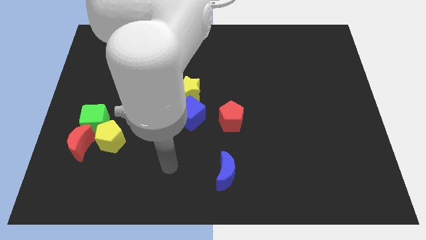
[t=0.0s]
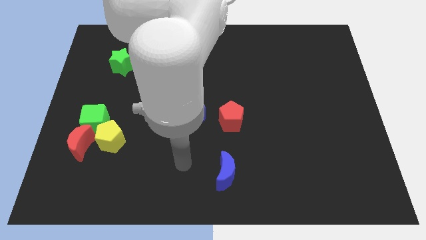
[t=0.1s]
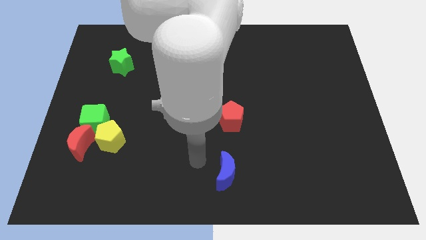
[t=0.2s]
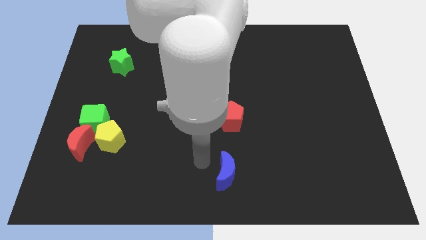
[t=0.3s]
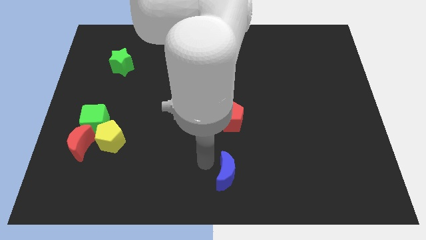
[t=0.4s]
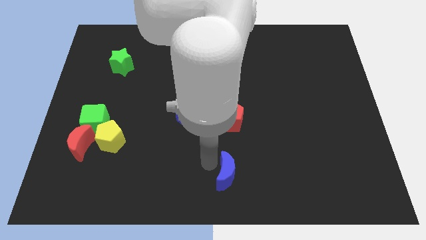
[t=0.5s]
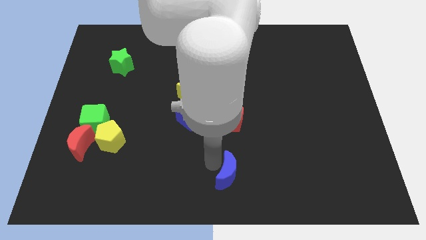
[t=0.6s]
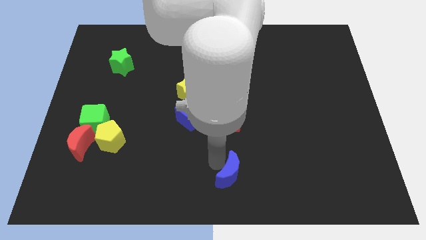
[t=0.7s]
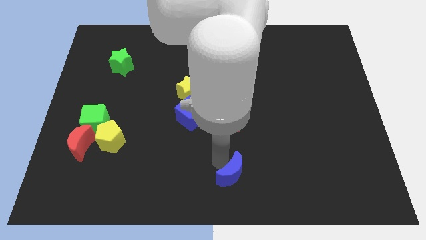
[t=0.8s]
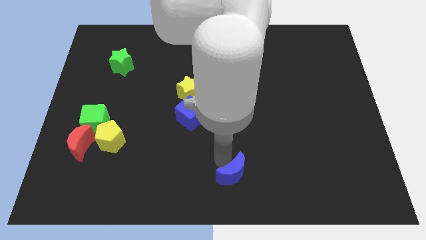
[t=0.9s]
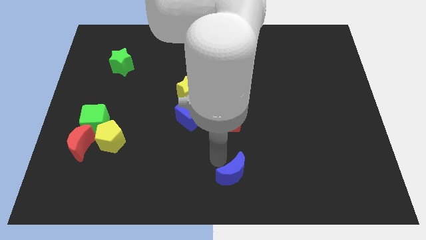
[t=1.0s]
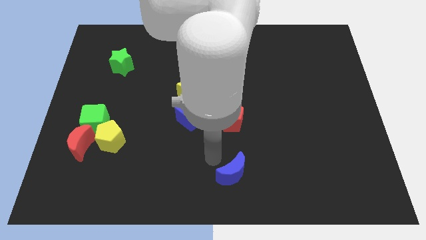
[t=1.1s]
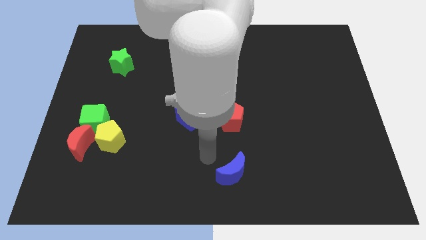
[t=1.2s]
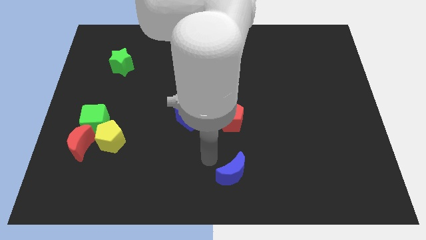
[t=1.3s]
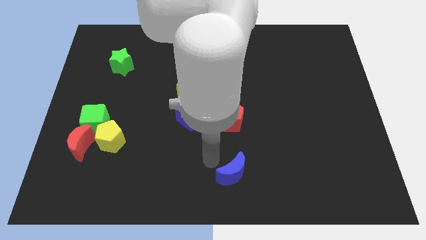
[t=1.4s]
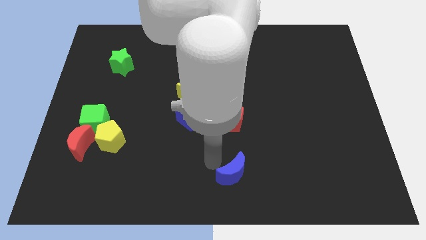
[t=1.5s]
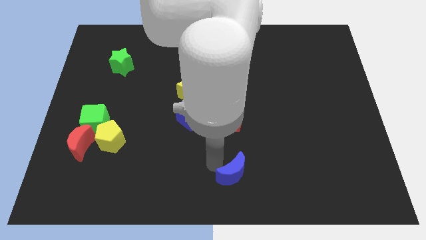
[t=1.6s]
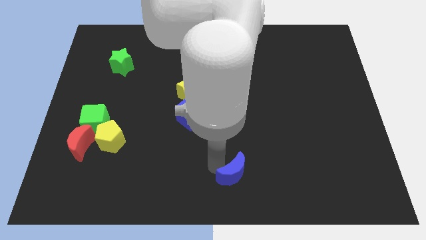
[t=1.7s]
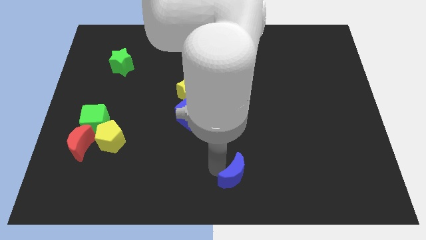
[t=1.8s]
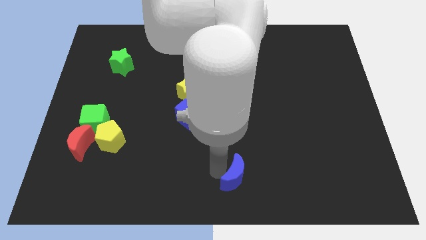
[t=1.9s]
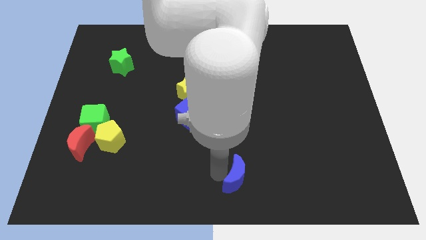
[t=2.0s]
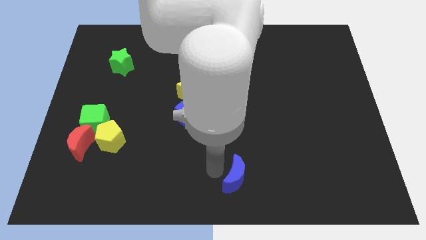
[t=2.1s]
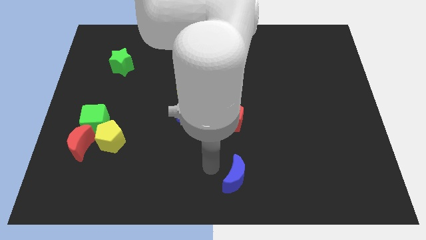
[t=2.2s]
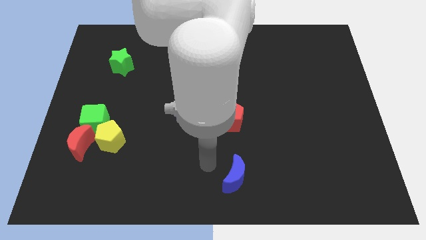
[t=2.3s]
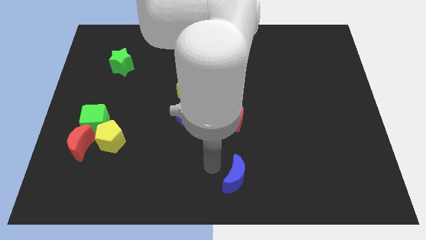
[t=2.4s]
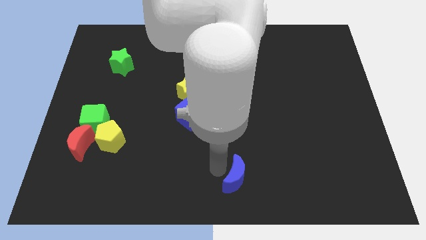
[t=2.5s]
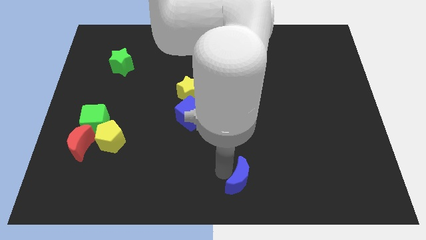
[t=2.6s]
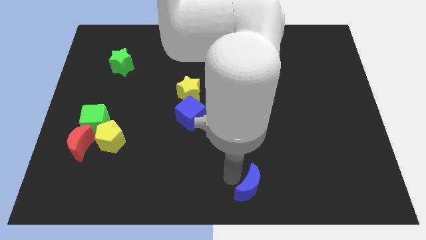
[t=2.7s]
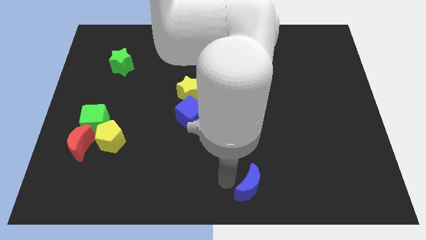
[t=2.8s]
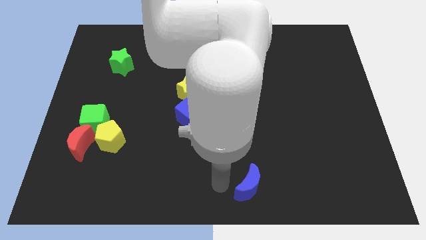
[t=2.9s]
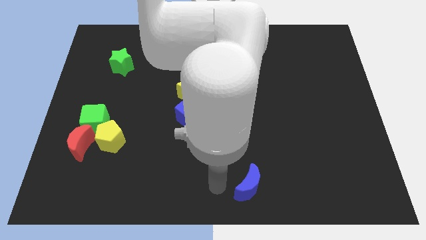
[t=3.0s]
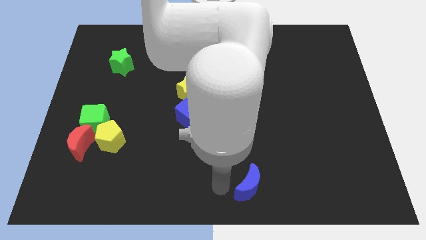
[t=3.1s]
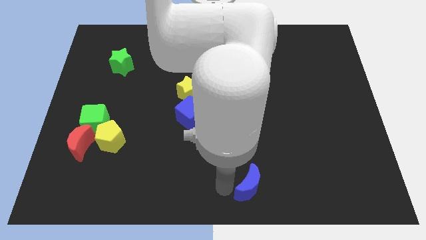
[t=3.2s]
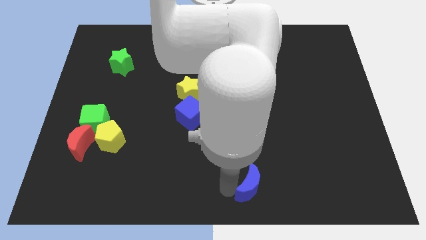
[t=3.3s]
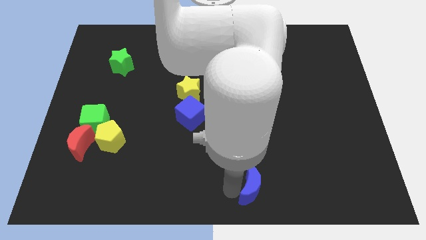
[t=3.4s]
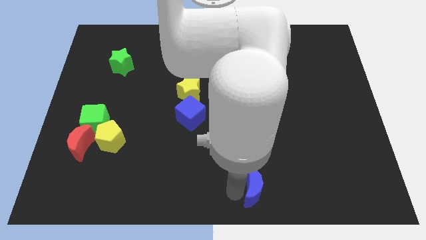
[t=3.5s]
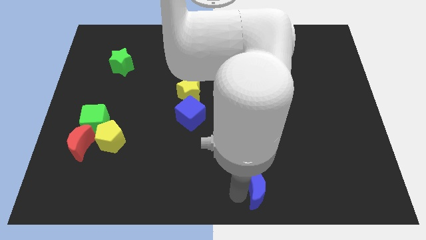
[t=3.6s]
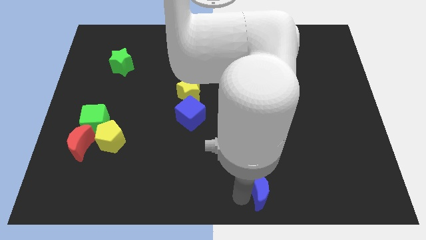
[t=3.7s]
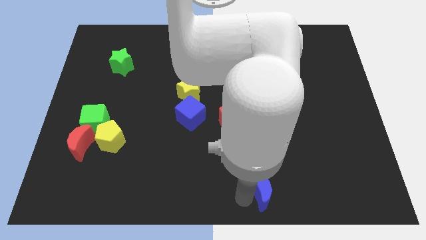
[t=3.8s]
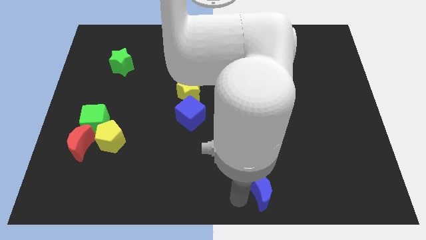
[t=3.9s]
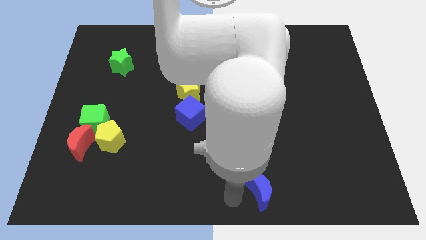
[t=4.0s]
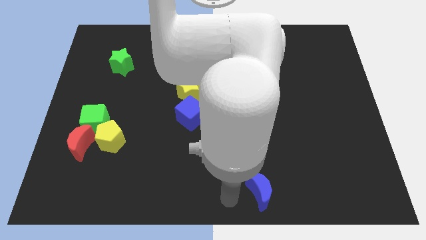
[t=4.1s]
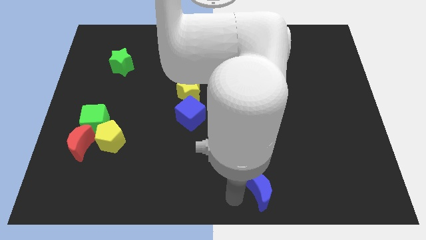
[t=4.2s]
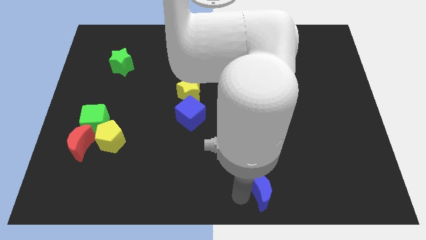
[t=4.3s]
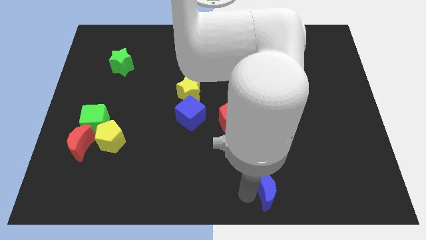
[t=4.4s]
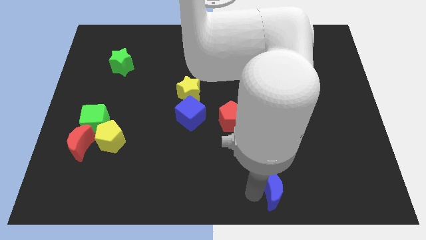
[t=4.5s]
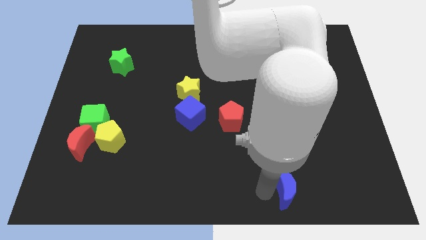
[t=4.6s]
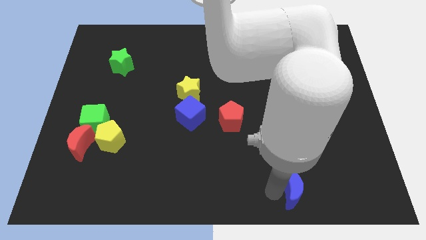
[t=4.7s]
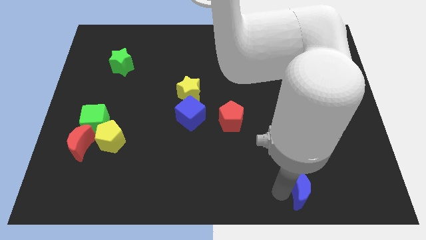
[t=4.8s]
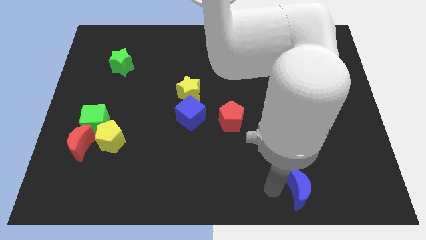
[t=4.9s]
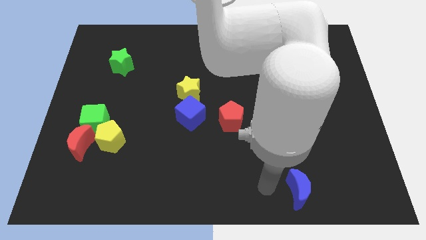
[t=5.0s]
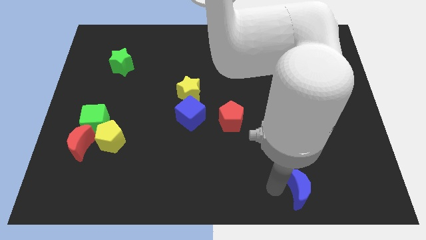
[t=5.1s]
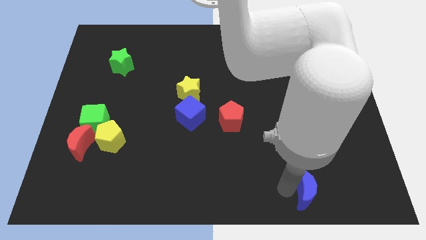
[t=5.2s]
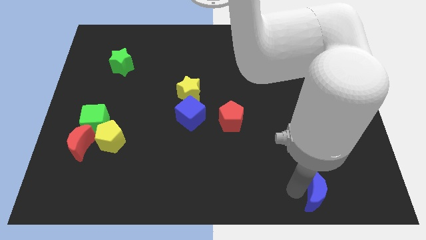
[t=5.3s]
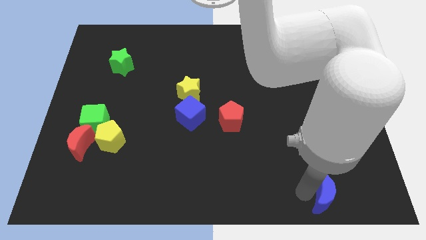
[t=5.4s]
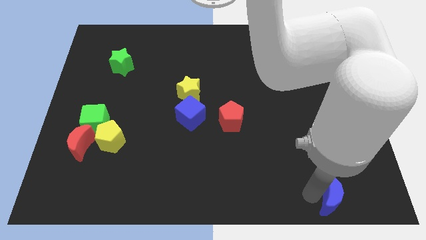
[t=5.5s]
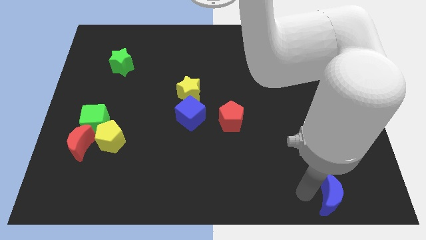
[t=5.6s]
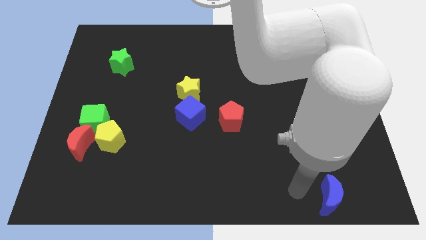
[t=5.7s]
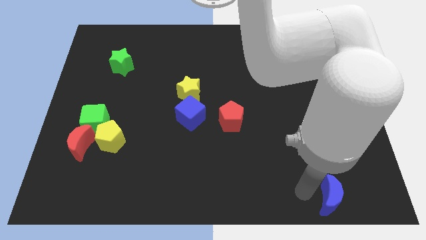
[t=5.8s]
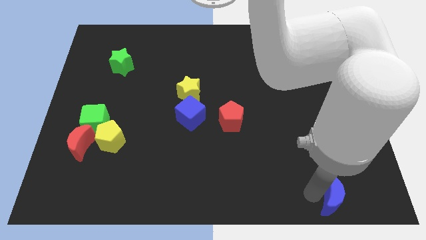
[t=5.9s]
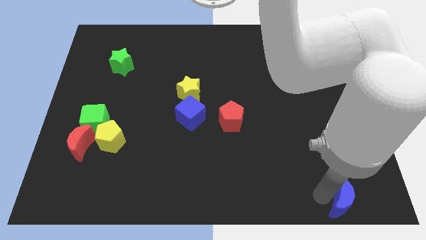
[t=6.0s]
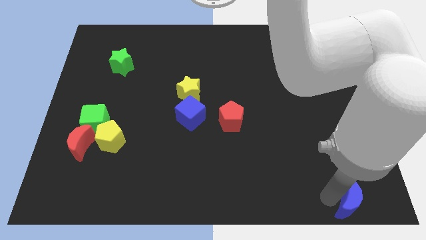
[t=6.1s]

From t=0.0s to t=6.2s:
push the blue moon to the lower right corner
